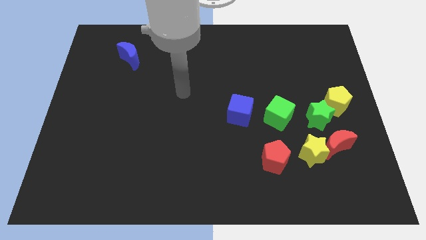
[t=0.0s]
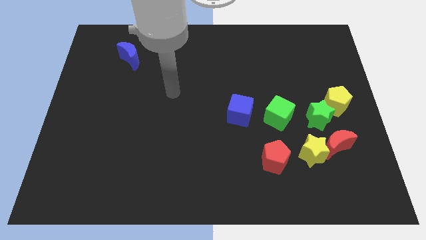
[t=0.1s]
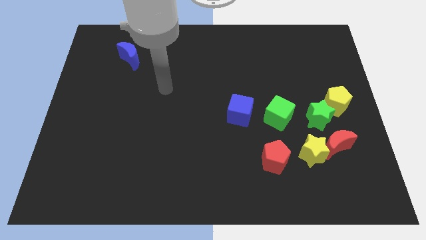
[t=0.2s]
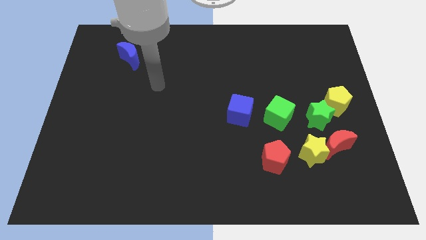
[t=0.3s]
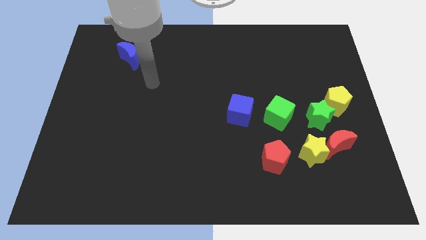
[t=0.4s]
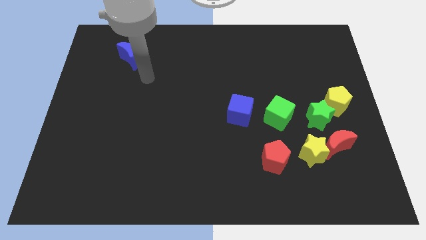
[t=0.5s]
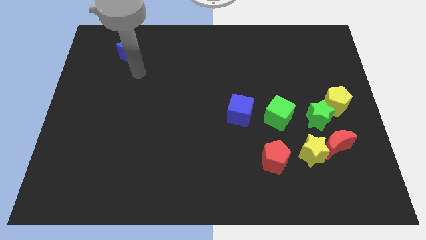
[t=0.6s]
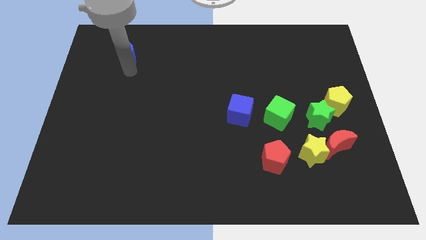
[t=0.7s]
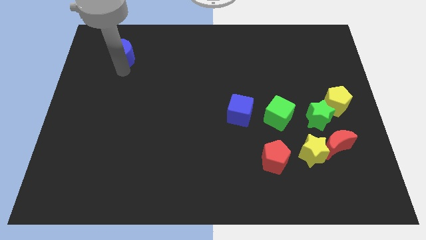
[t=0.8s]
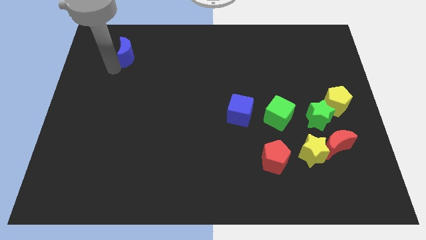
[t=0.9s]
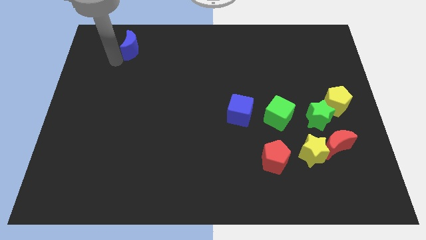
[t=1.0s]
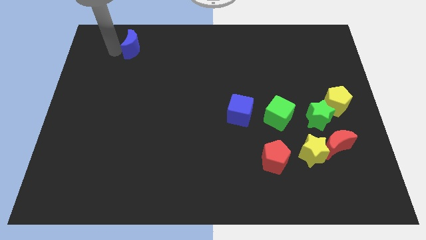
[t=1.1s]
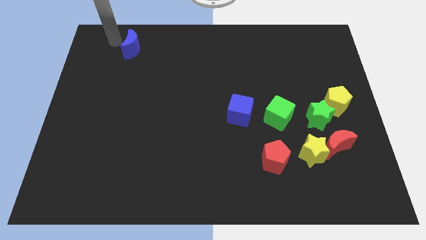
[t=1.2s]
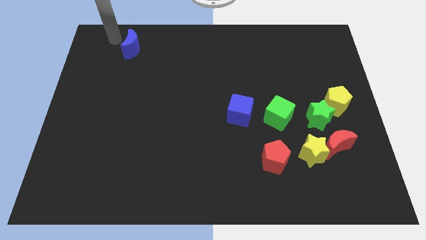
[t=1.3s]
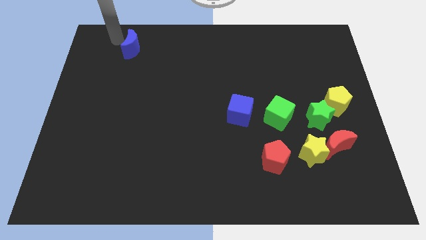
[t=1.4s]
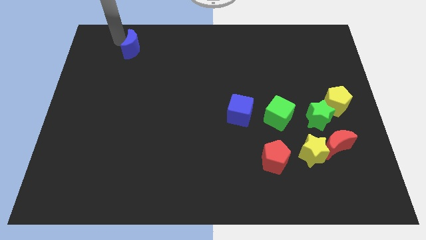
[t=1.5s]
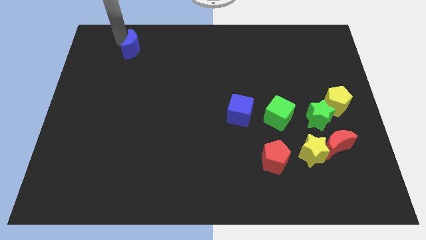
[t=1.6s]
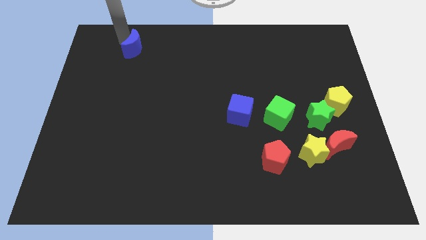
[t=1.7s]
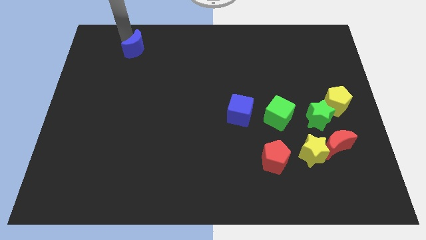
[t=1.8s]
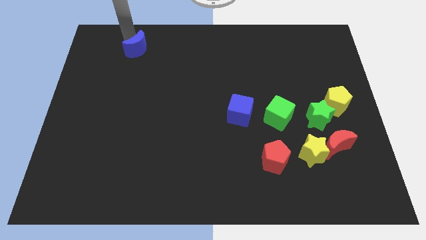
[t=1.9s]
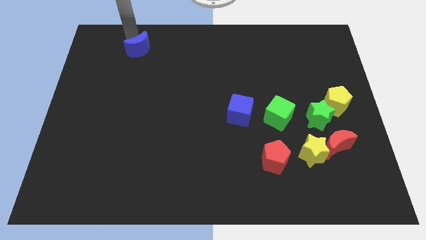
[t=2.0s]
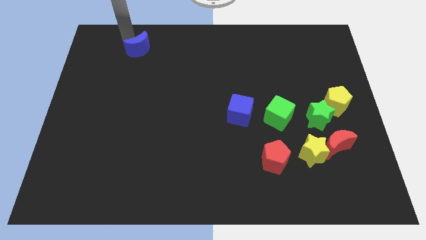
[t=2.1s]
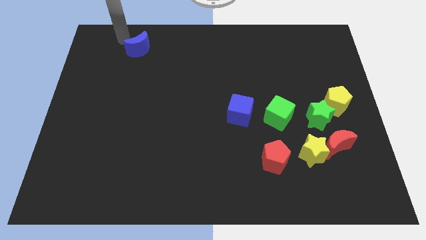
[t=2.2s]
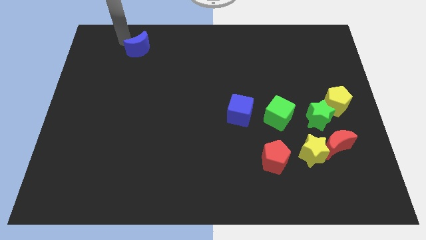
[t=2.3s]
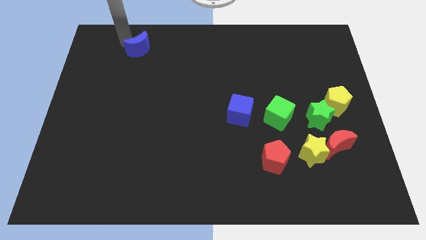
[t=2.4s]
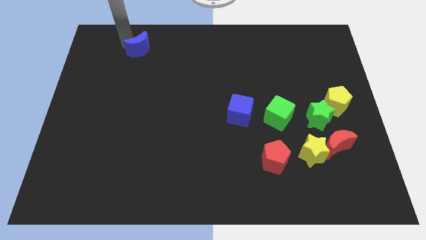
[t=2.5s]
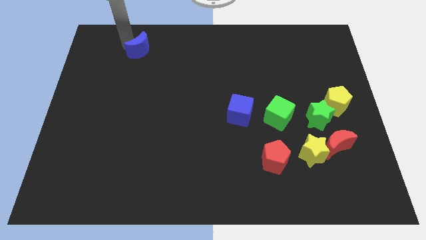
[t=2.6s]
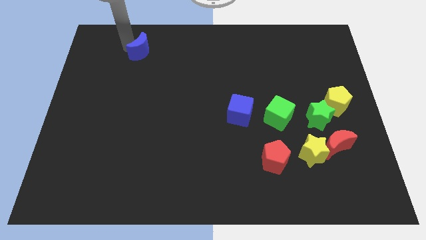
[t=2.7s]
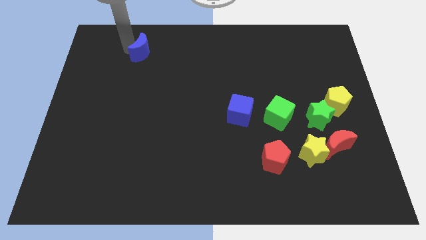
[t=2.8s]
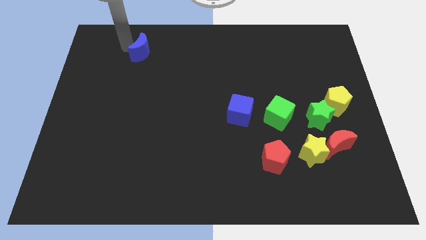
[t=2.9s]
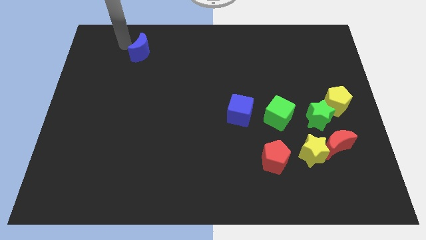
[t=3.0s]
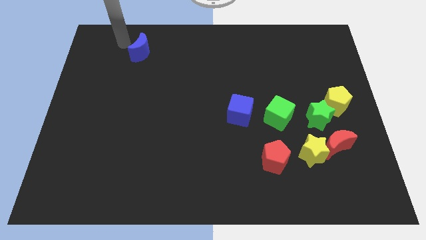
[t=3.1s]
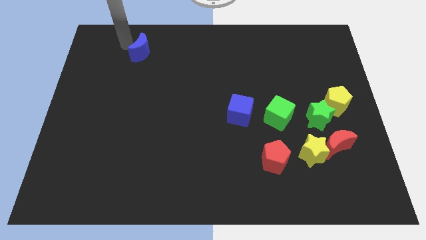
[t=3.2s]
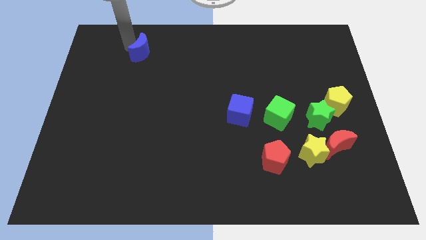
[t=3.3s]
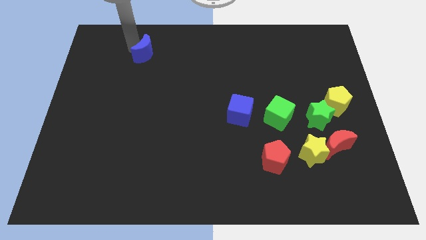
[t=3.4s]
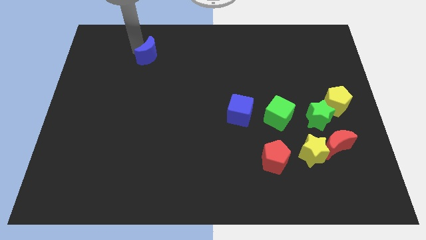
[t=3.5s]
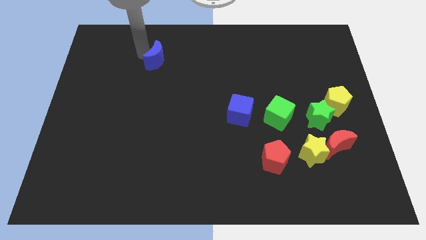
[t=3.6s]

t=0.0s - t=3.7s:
slightly slide the blue moon right

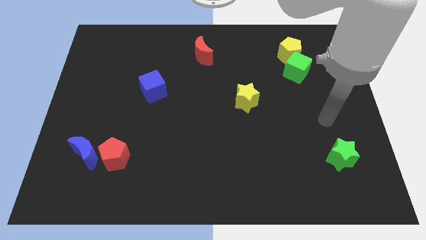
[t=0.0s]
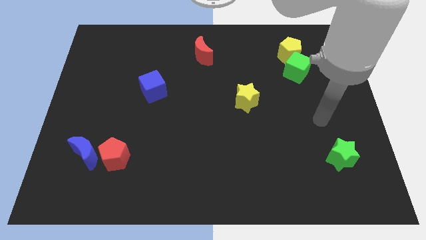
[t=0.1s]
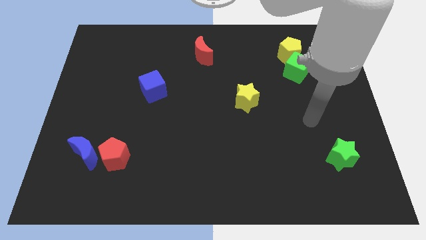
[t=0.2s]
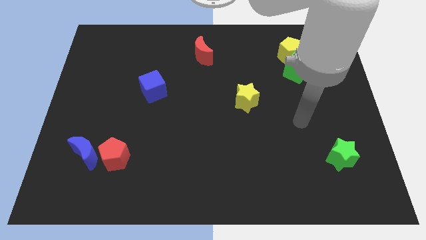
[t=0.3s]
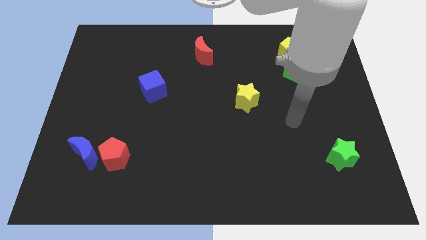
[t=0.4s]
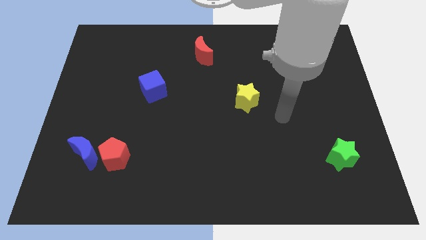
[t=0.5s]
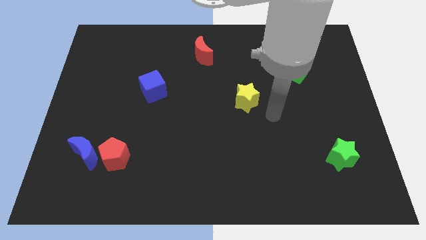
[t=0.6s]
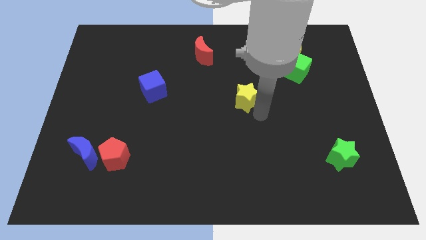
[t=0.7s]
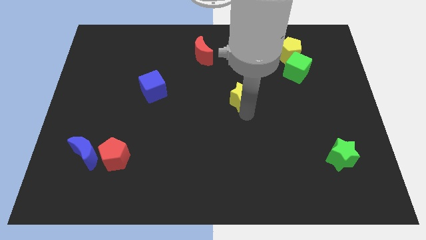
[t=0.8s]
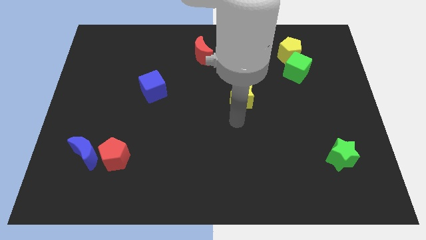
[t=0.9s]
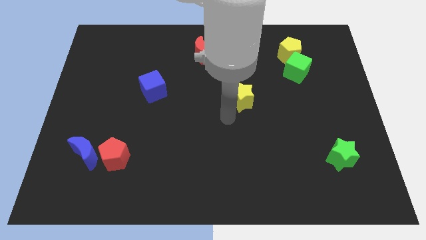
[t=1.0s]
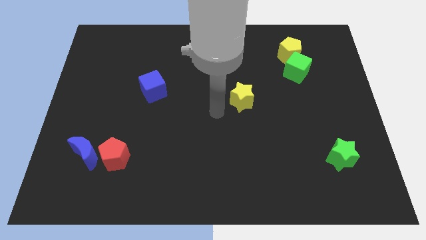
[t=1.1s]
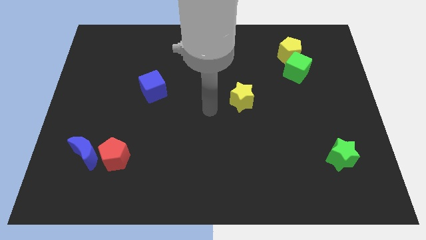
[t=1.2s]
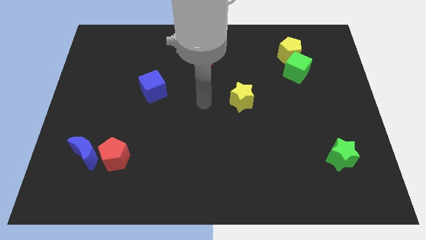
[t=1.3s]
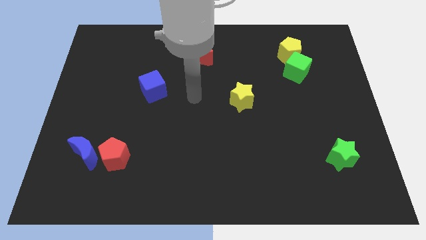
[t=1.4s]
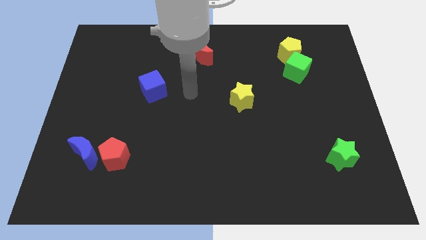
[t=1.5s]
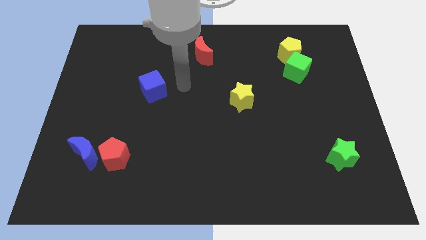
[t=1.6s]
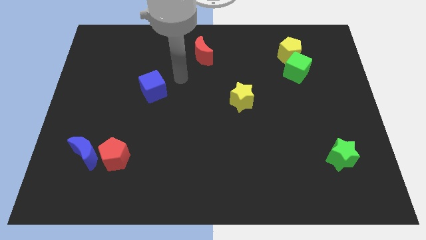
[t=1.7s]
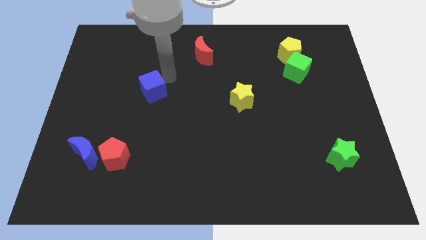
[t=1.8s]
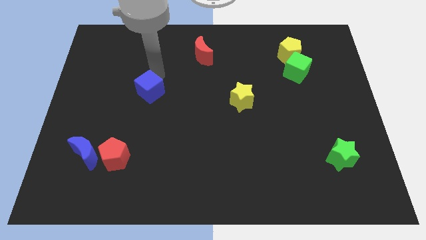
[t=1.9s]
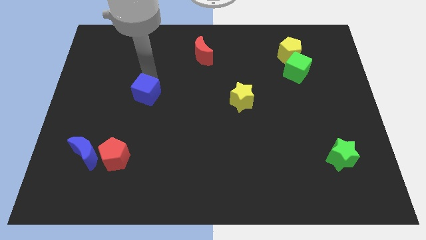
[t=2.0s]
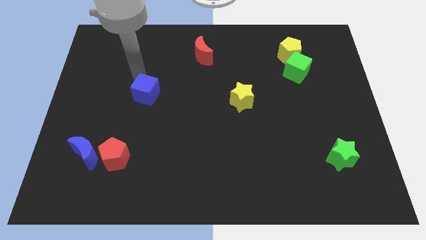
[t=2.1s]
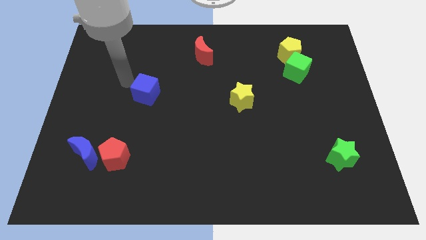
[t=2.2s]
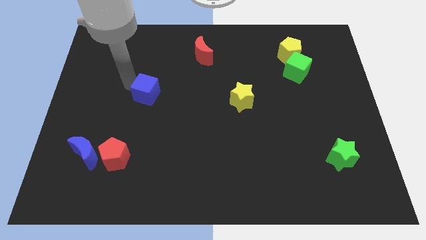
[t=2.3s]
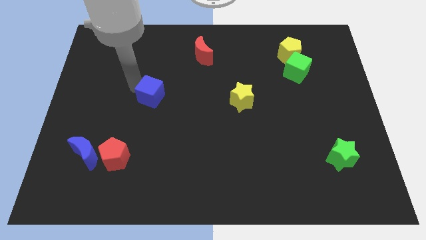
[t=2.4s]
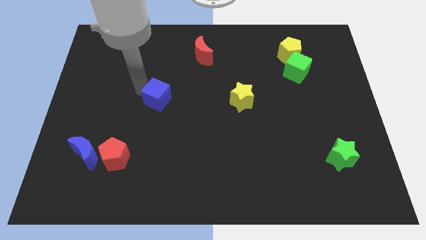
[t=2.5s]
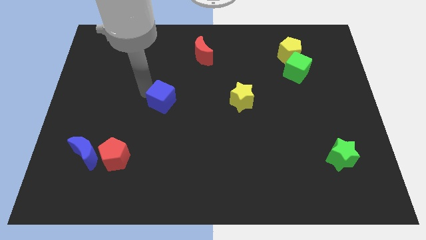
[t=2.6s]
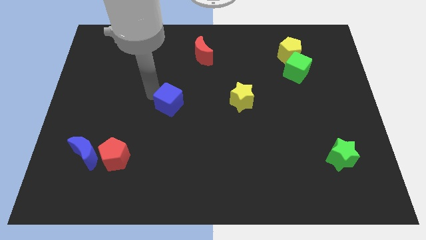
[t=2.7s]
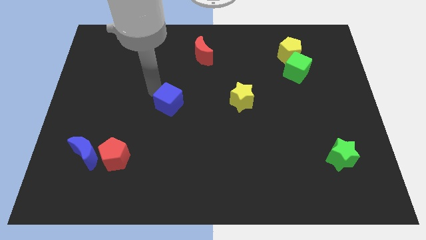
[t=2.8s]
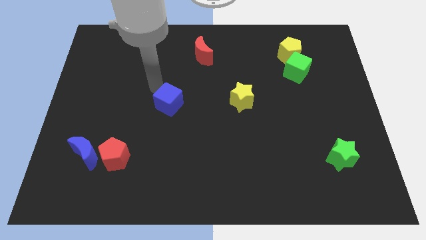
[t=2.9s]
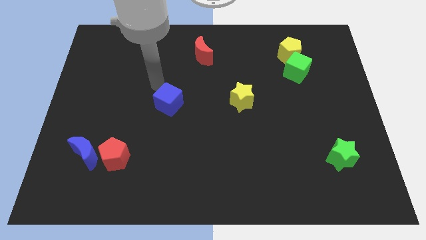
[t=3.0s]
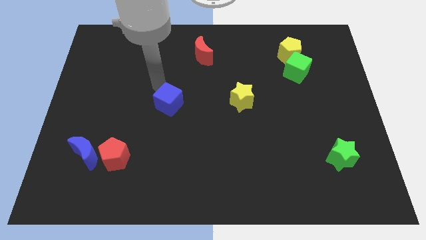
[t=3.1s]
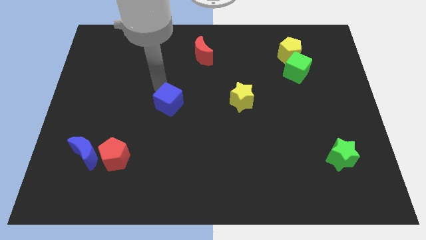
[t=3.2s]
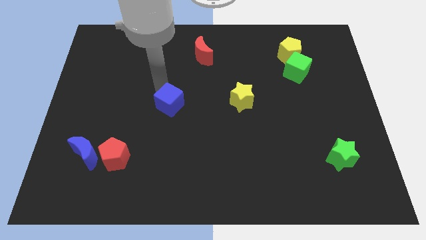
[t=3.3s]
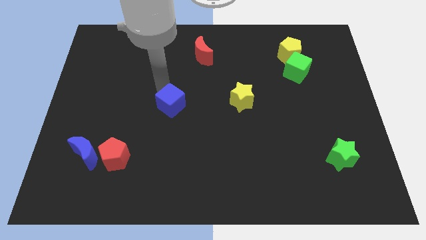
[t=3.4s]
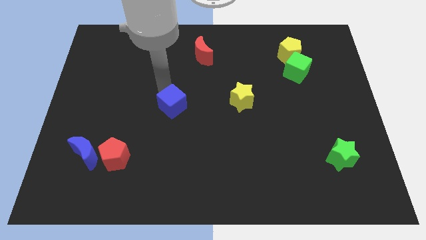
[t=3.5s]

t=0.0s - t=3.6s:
move the blue cube diagonally downwards and to the right a little

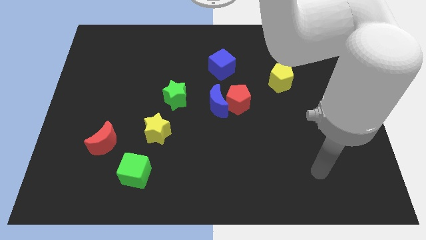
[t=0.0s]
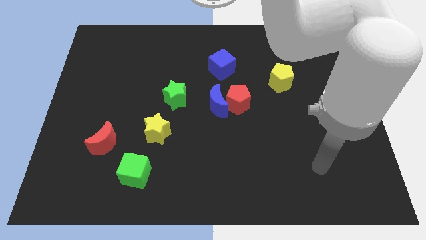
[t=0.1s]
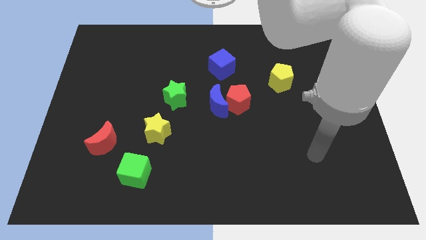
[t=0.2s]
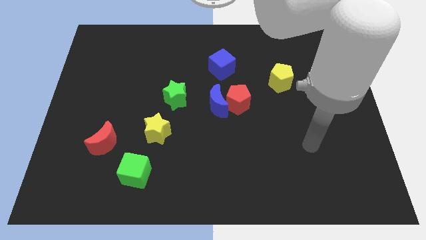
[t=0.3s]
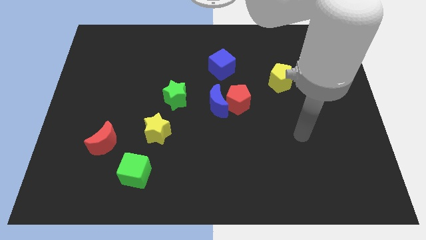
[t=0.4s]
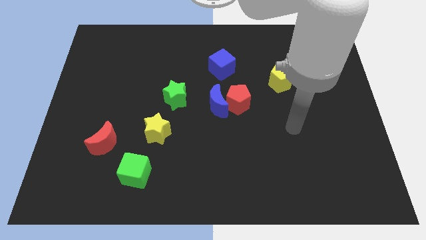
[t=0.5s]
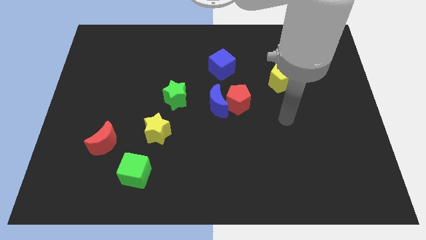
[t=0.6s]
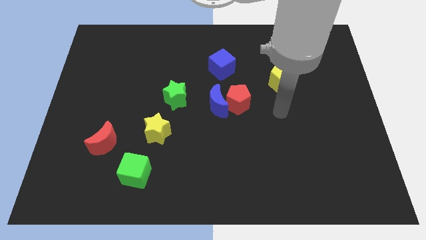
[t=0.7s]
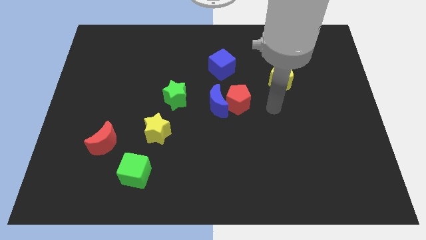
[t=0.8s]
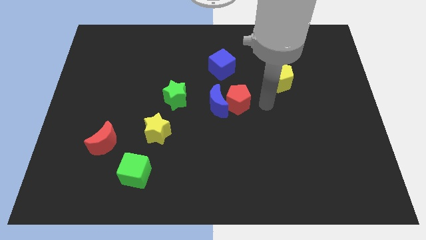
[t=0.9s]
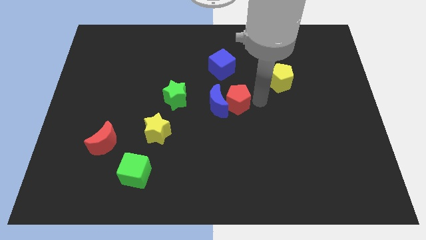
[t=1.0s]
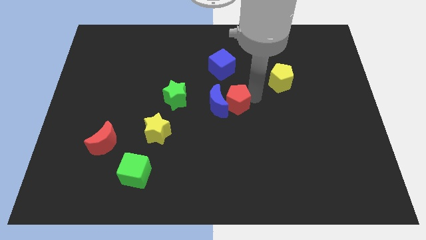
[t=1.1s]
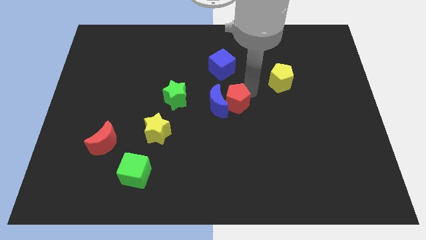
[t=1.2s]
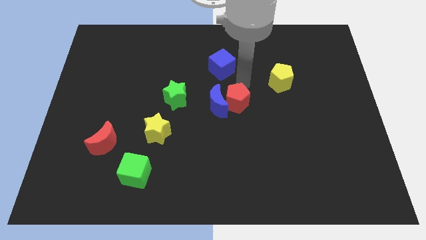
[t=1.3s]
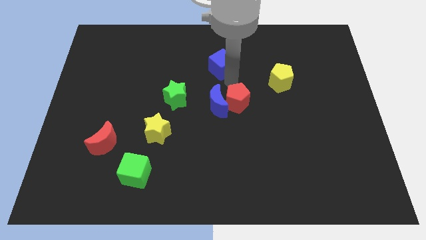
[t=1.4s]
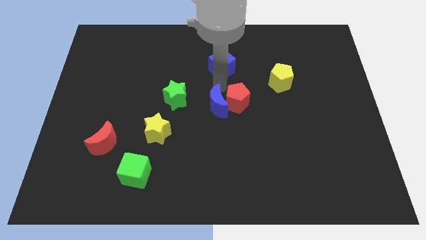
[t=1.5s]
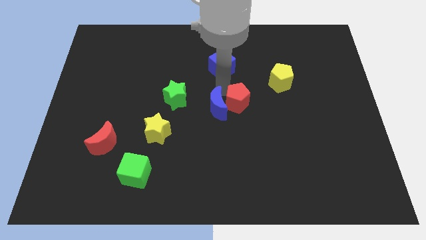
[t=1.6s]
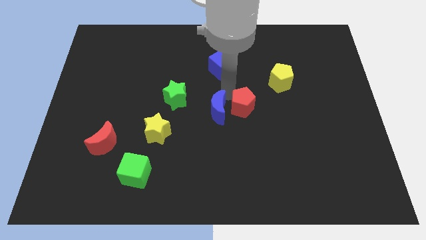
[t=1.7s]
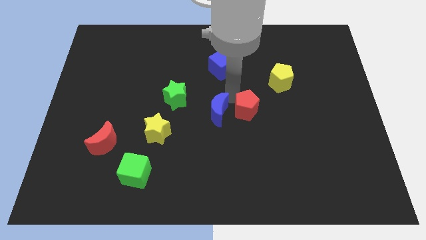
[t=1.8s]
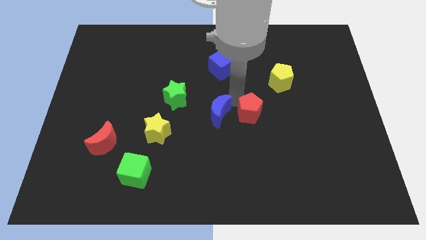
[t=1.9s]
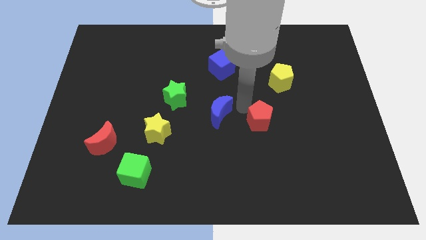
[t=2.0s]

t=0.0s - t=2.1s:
slide the red pentagon down and then to the right slightly
